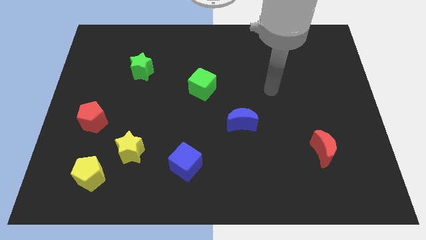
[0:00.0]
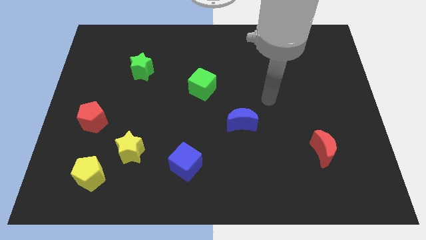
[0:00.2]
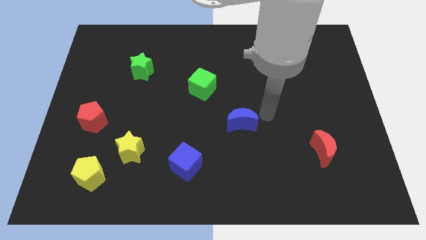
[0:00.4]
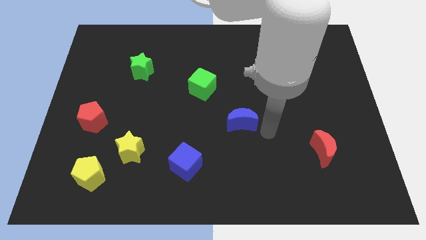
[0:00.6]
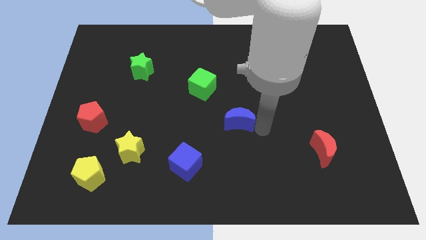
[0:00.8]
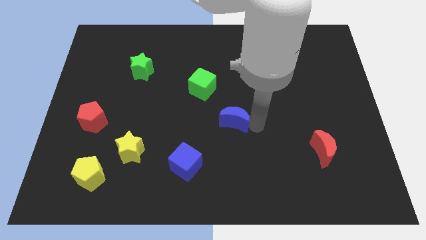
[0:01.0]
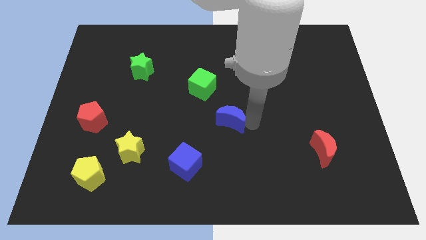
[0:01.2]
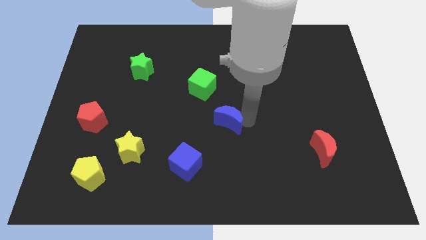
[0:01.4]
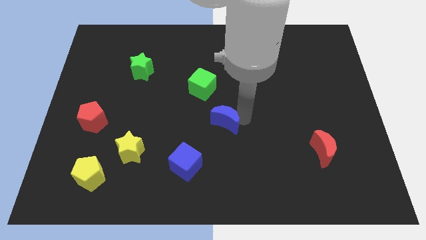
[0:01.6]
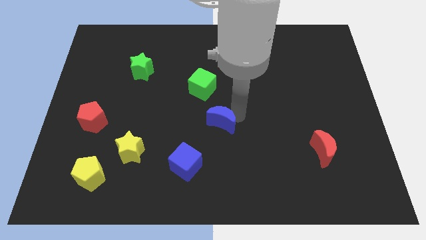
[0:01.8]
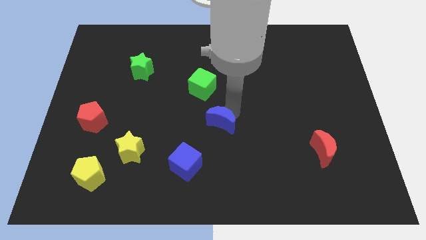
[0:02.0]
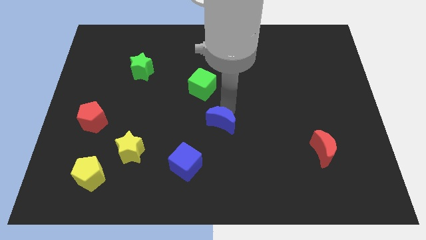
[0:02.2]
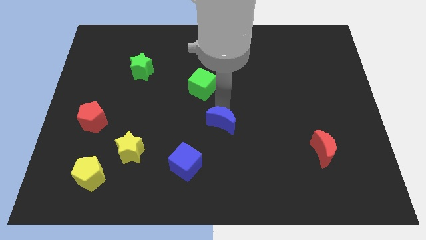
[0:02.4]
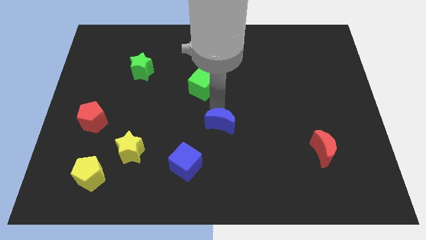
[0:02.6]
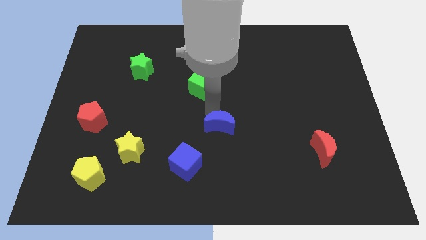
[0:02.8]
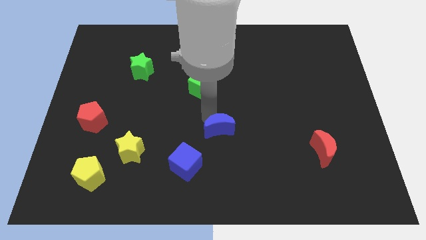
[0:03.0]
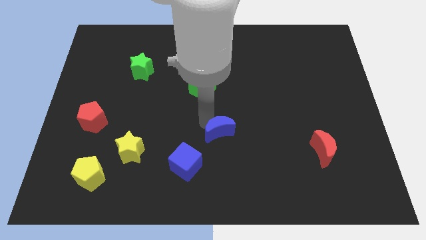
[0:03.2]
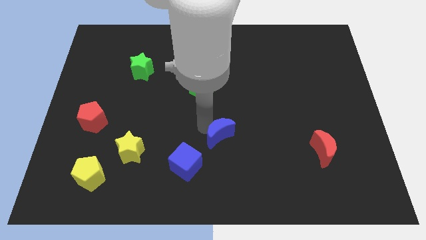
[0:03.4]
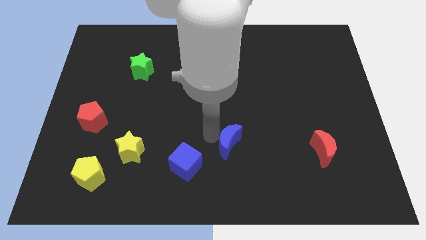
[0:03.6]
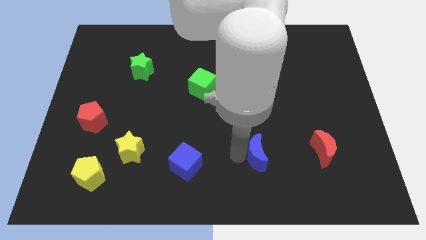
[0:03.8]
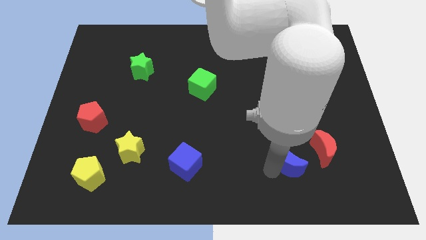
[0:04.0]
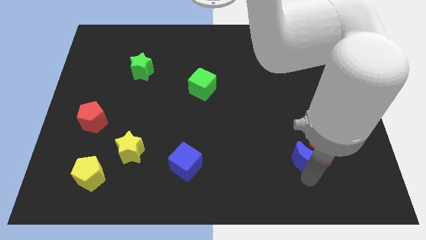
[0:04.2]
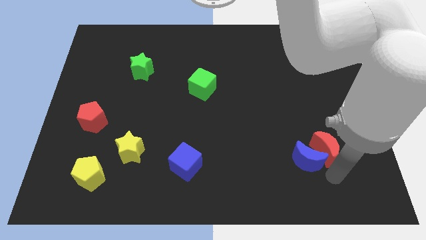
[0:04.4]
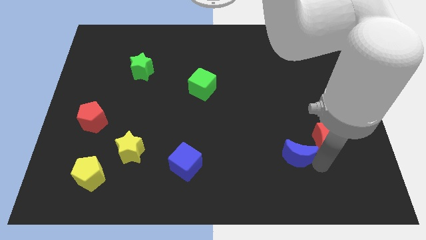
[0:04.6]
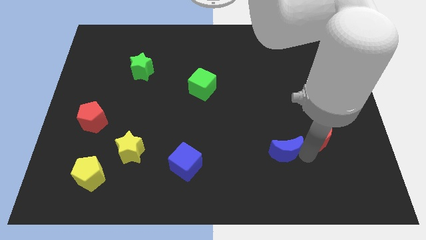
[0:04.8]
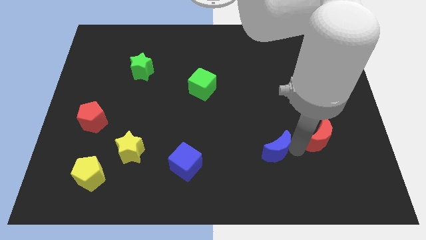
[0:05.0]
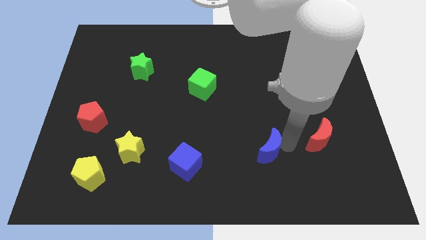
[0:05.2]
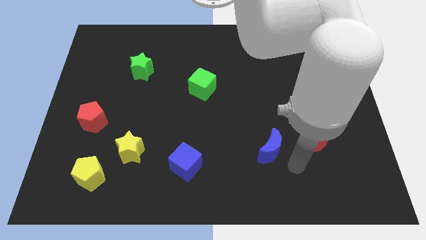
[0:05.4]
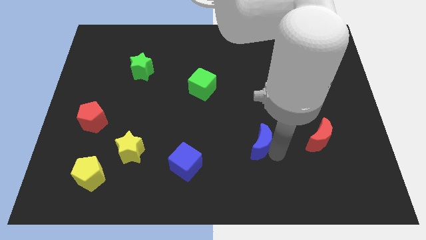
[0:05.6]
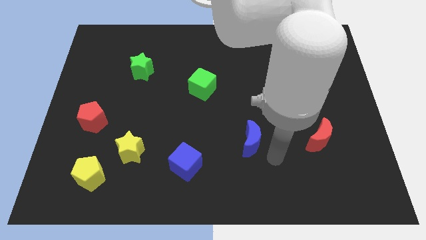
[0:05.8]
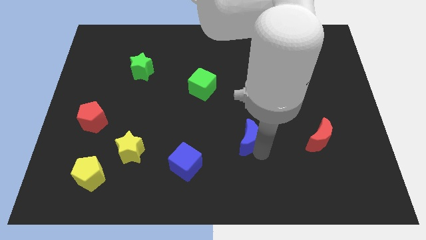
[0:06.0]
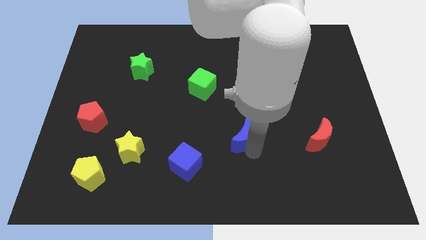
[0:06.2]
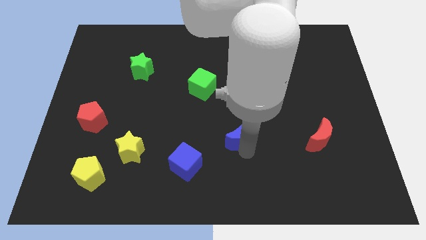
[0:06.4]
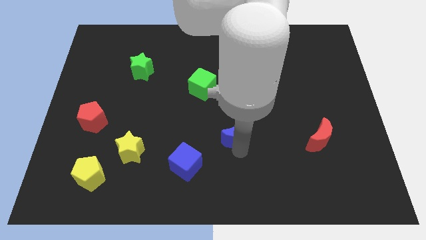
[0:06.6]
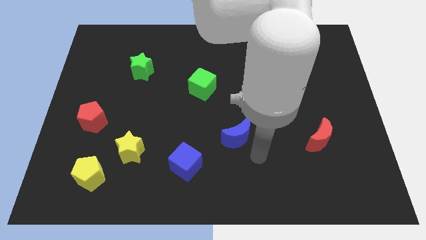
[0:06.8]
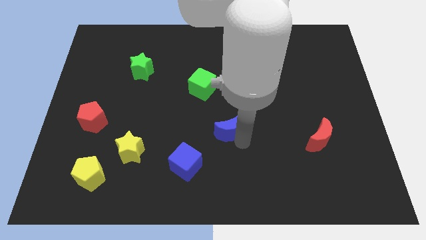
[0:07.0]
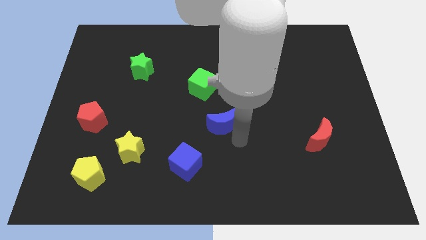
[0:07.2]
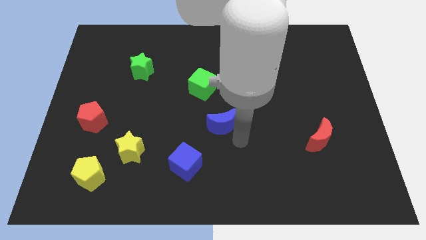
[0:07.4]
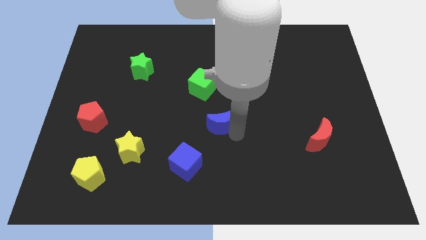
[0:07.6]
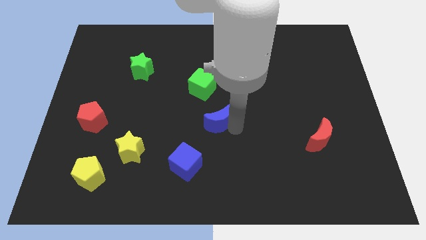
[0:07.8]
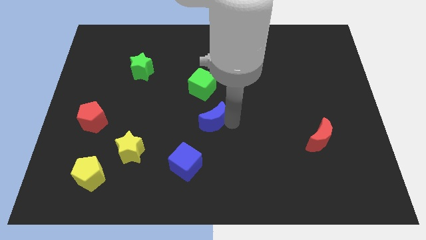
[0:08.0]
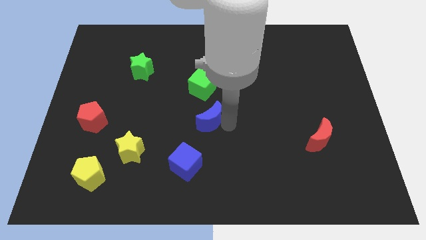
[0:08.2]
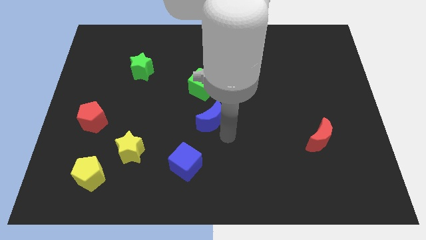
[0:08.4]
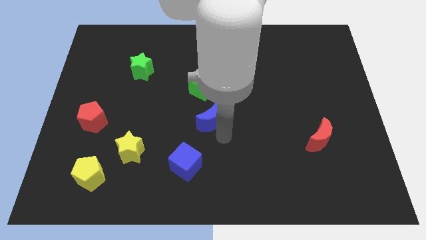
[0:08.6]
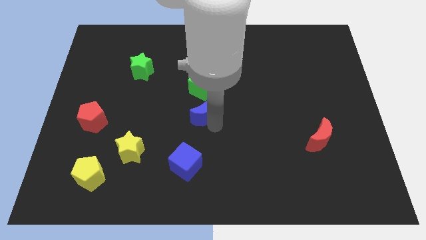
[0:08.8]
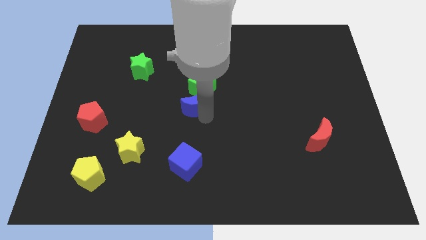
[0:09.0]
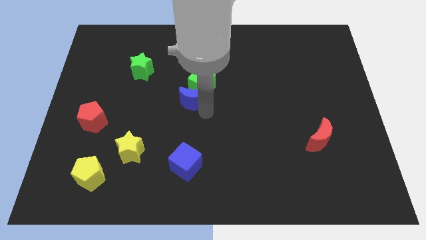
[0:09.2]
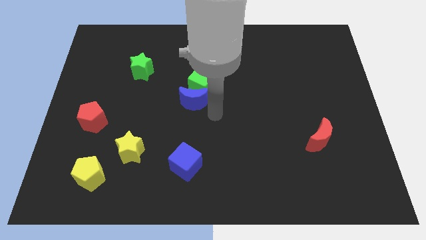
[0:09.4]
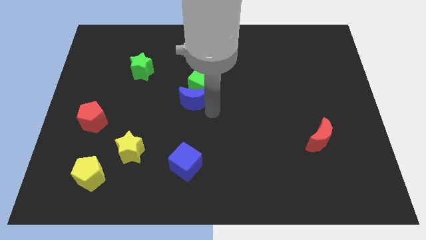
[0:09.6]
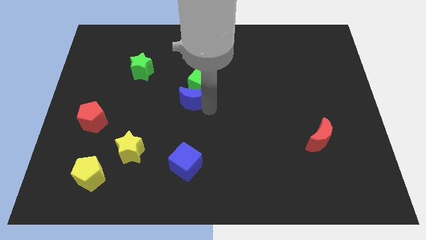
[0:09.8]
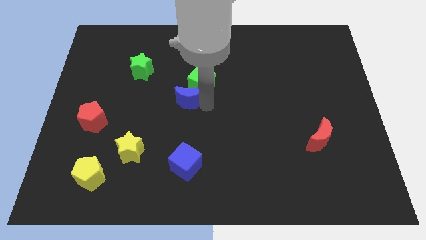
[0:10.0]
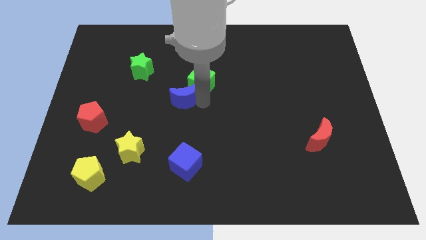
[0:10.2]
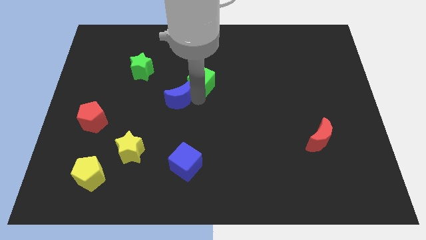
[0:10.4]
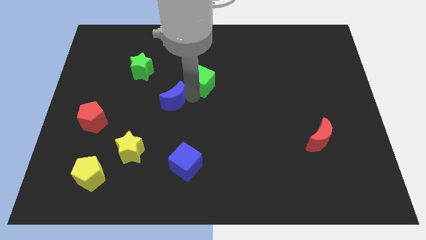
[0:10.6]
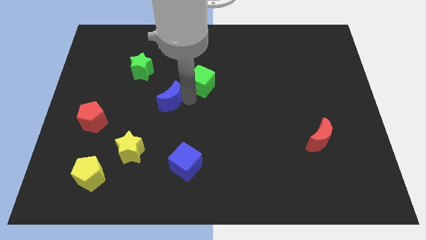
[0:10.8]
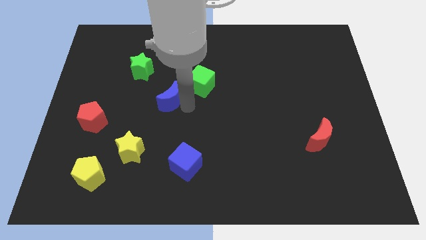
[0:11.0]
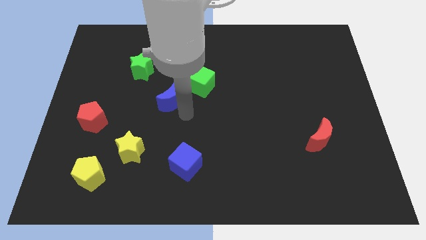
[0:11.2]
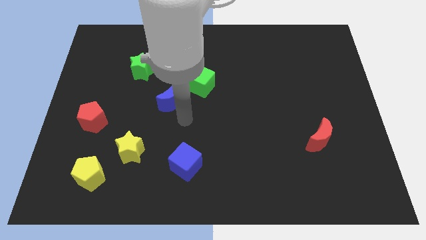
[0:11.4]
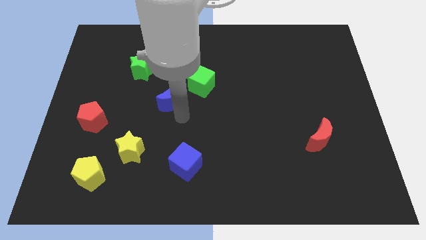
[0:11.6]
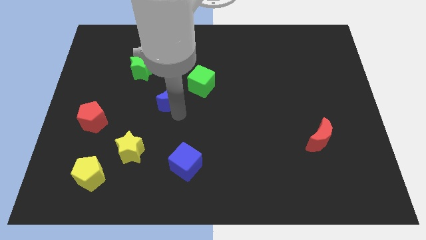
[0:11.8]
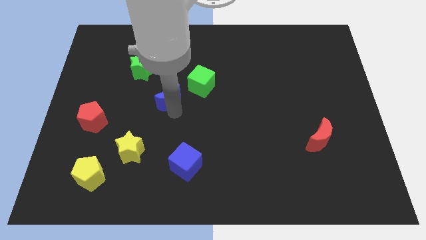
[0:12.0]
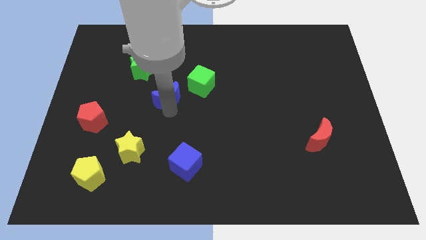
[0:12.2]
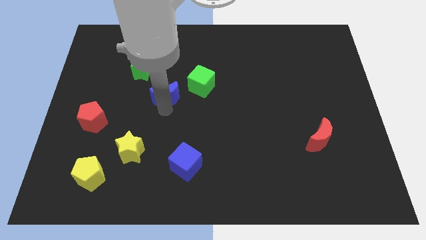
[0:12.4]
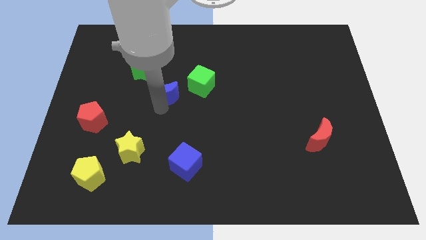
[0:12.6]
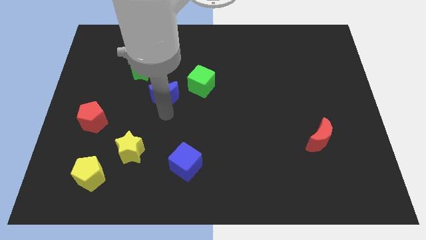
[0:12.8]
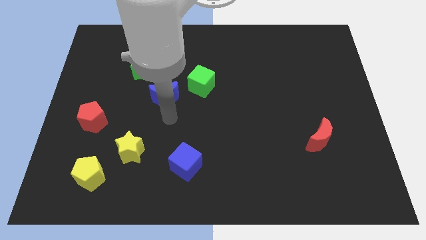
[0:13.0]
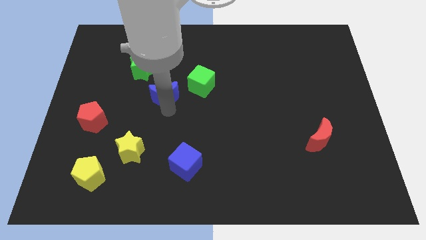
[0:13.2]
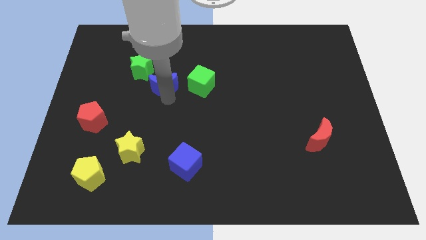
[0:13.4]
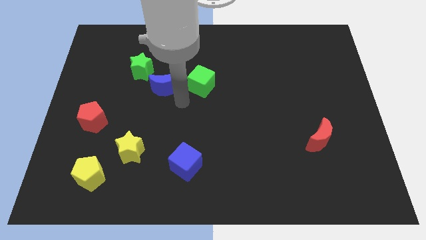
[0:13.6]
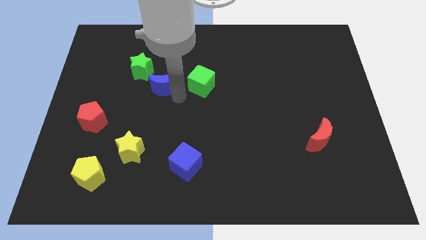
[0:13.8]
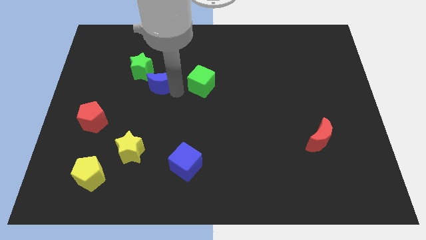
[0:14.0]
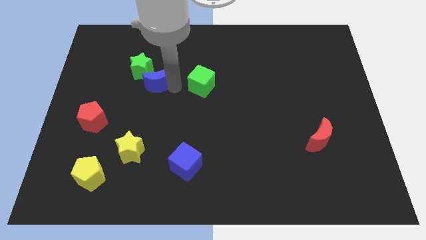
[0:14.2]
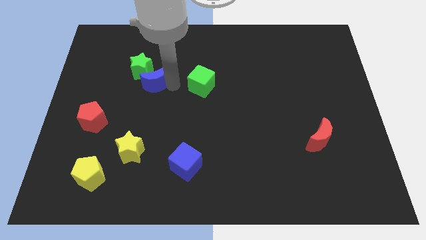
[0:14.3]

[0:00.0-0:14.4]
put the blue moon next to the green star
